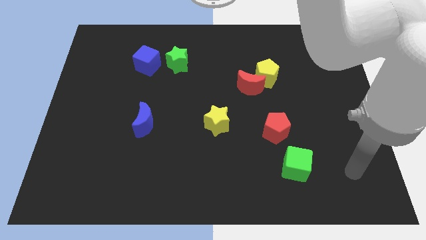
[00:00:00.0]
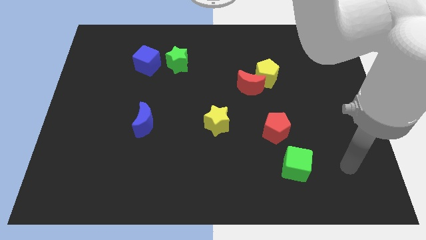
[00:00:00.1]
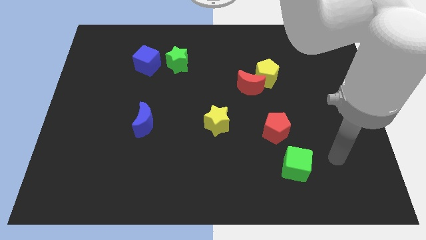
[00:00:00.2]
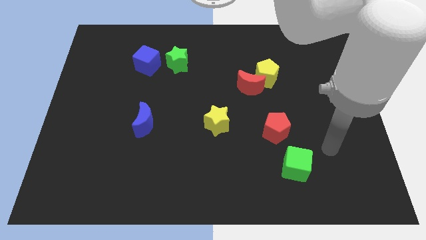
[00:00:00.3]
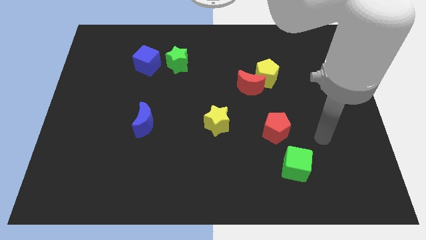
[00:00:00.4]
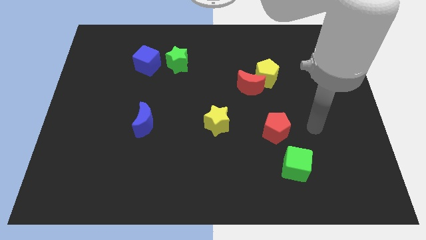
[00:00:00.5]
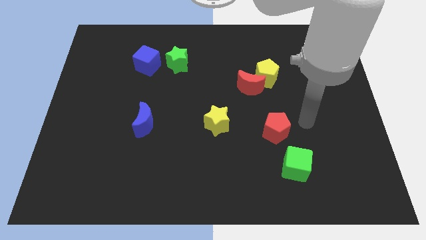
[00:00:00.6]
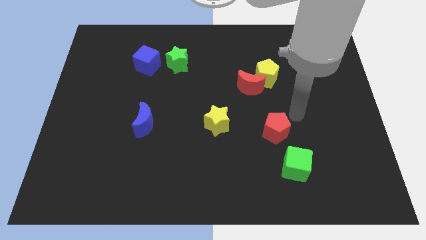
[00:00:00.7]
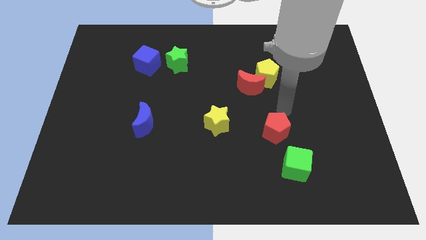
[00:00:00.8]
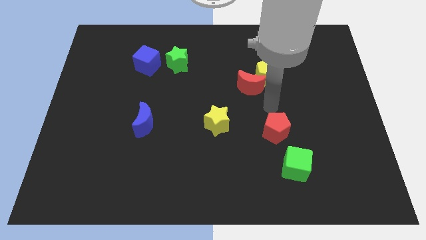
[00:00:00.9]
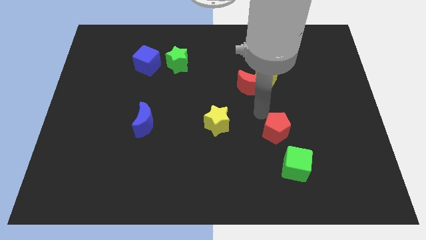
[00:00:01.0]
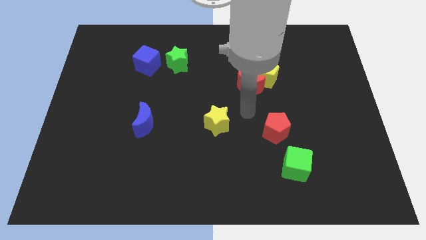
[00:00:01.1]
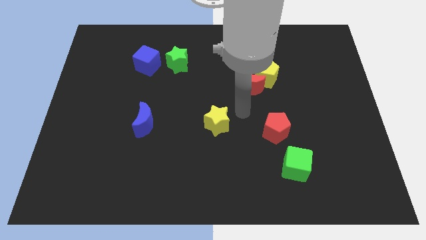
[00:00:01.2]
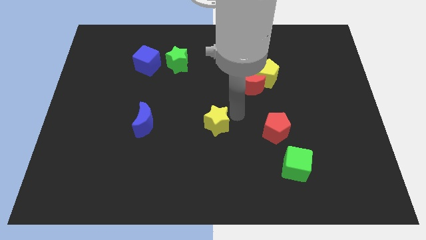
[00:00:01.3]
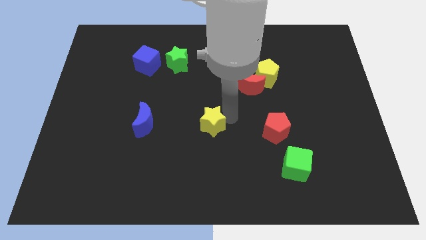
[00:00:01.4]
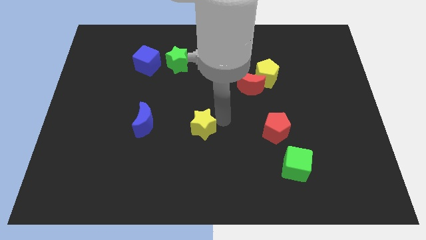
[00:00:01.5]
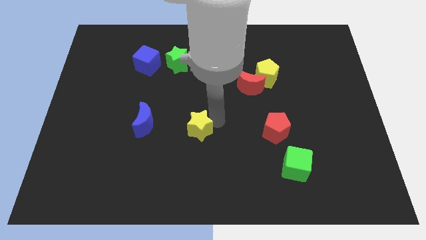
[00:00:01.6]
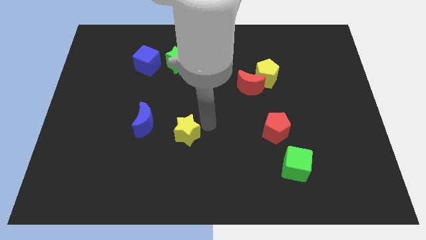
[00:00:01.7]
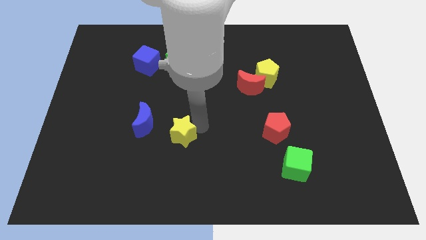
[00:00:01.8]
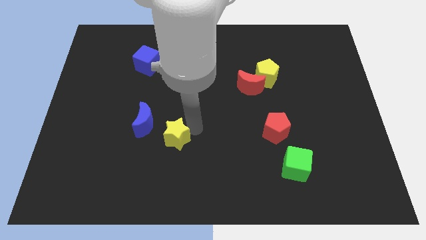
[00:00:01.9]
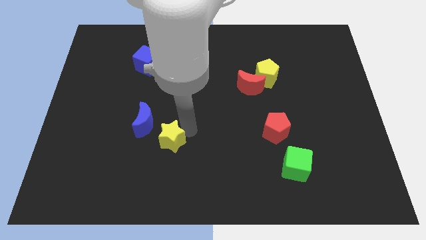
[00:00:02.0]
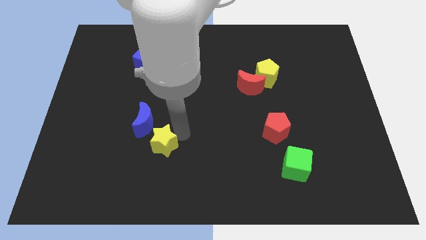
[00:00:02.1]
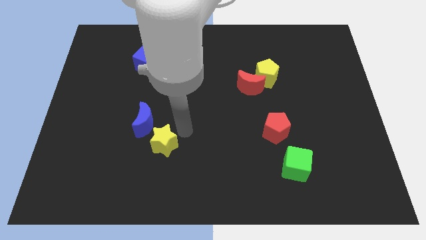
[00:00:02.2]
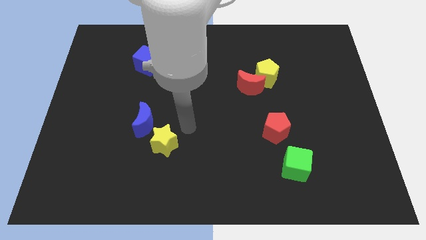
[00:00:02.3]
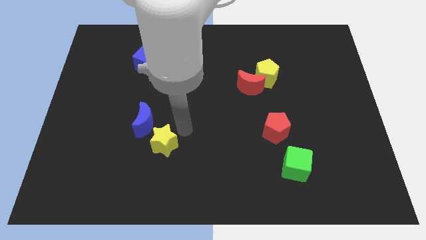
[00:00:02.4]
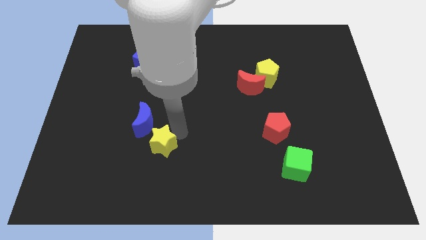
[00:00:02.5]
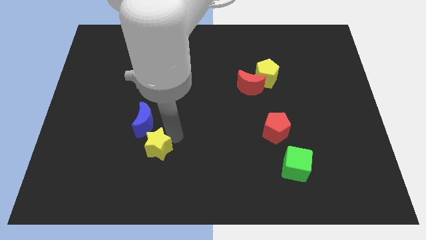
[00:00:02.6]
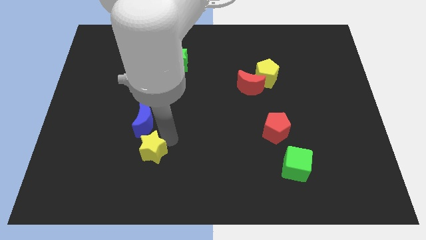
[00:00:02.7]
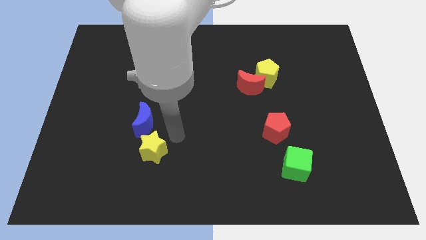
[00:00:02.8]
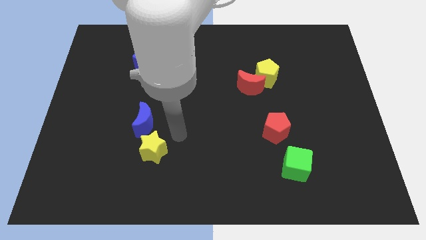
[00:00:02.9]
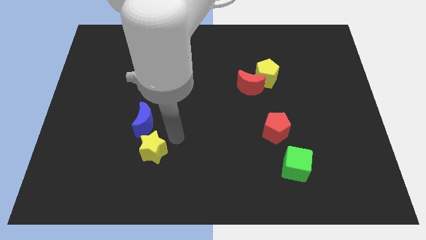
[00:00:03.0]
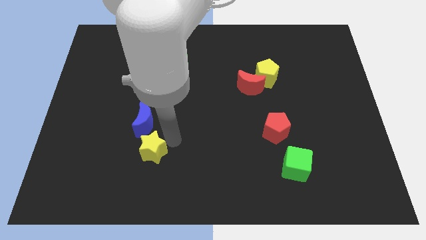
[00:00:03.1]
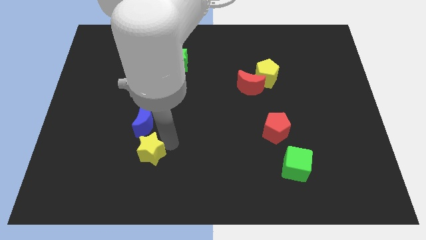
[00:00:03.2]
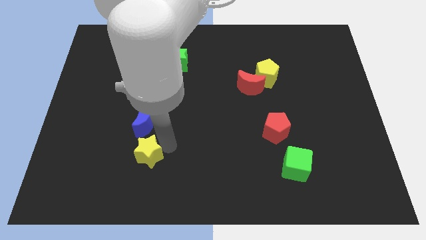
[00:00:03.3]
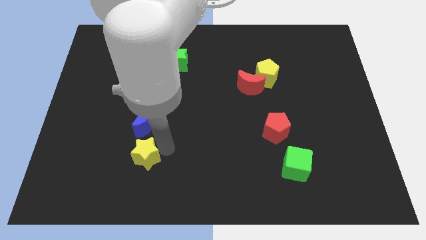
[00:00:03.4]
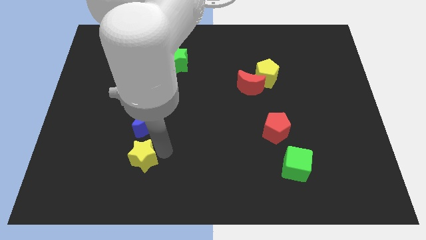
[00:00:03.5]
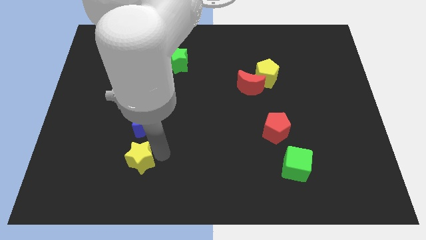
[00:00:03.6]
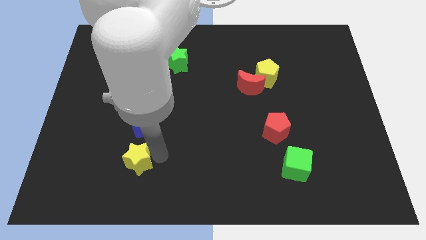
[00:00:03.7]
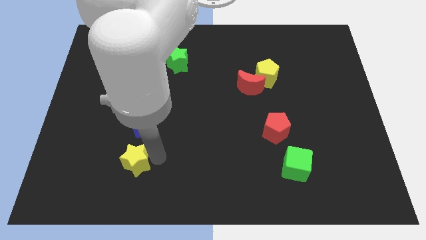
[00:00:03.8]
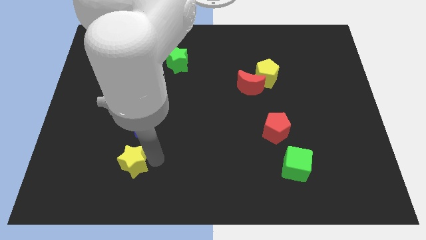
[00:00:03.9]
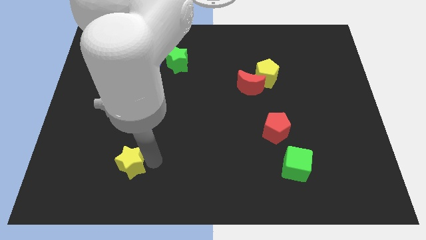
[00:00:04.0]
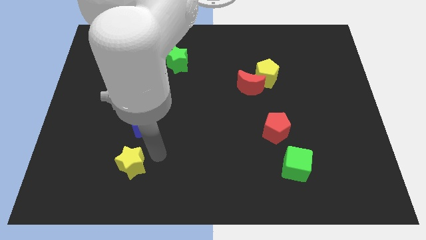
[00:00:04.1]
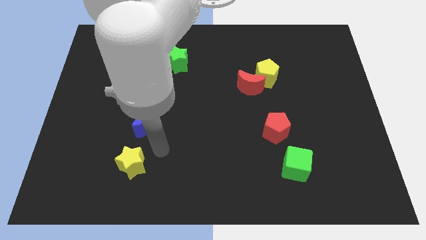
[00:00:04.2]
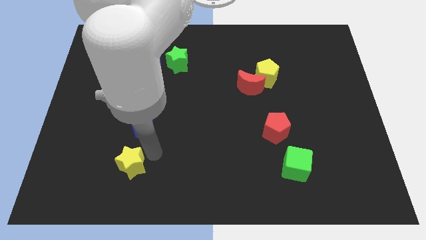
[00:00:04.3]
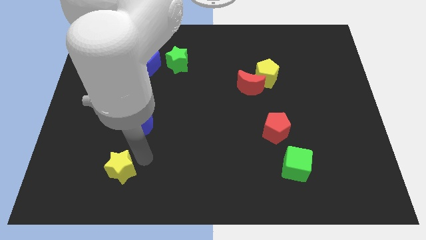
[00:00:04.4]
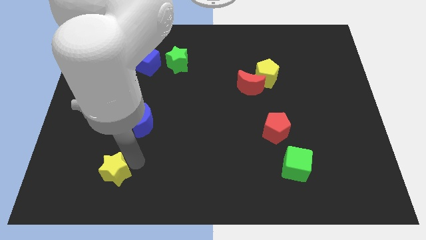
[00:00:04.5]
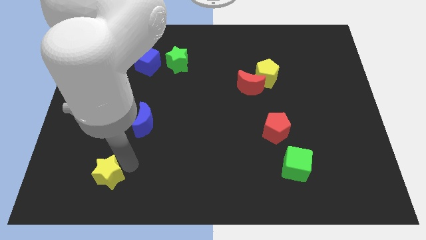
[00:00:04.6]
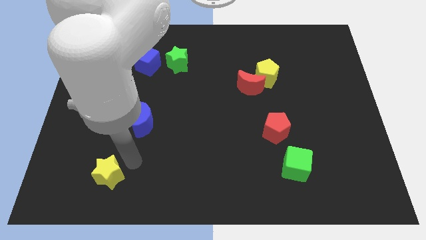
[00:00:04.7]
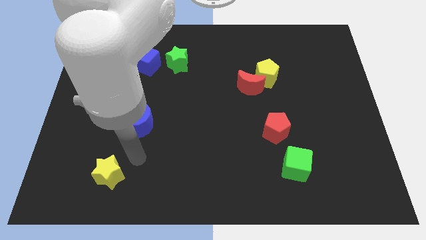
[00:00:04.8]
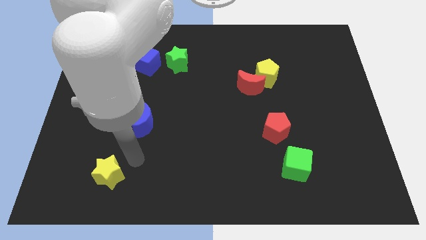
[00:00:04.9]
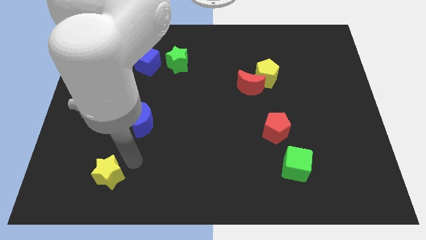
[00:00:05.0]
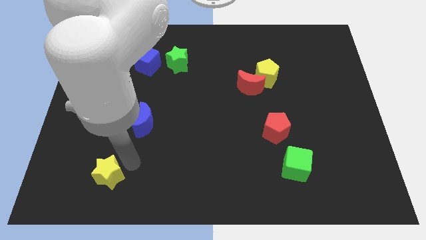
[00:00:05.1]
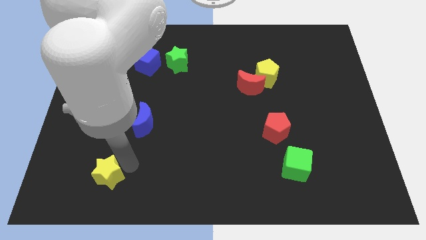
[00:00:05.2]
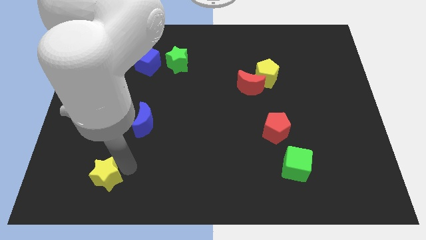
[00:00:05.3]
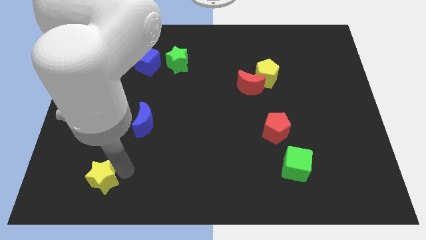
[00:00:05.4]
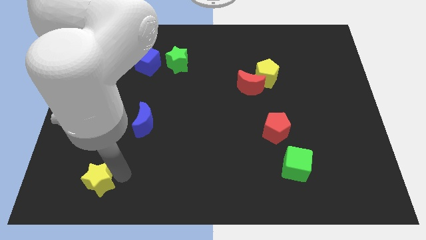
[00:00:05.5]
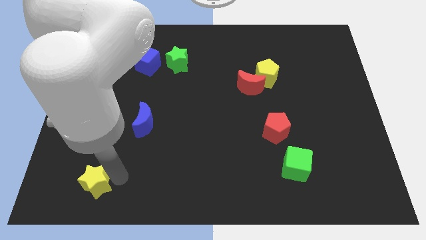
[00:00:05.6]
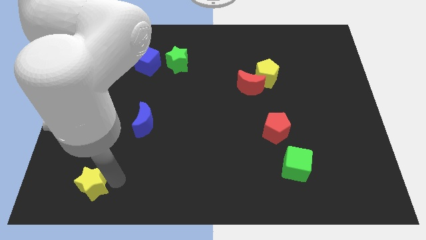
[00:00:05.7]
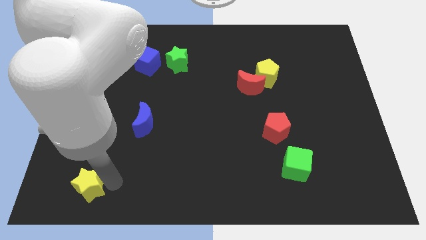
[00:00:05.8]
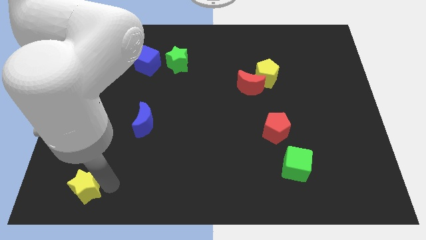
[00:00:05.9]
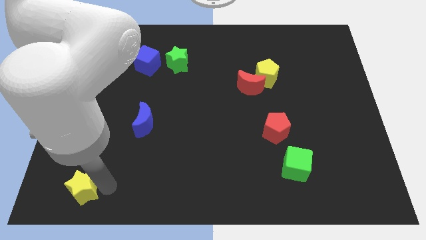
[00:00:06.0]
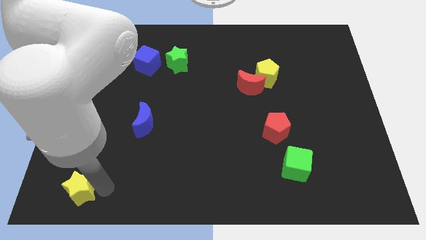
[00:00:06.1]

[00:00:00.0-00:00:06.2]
put the yellow star to the bottom left of the board
